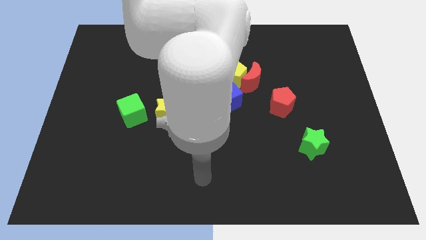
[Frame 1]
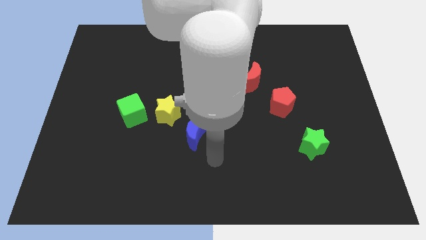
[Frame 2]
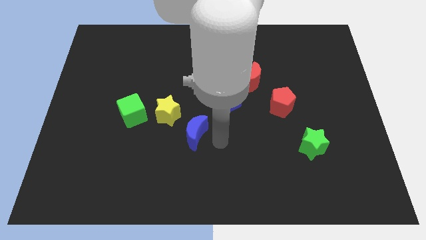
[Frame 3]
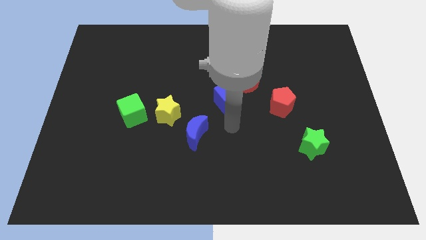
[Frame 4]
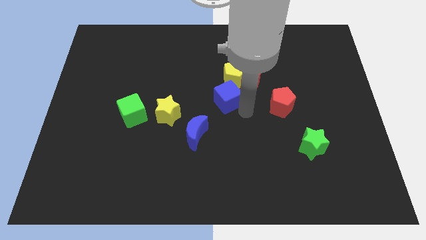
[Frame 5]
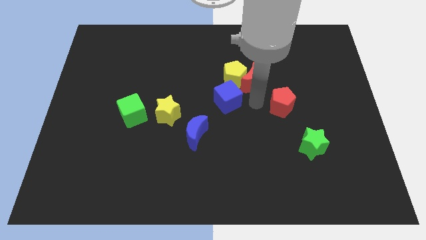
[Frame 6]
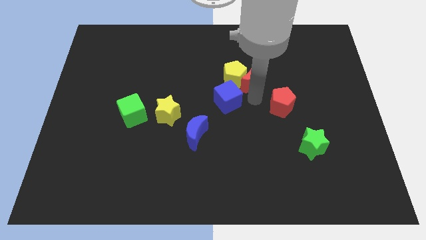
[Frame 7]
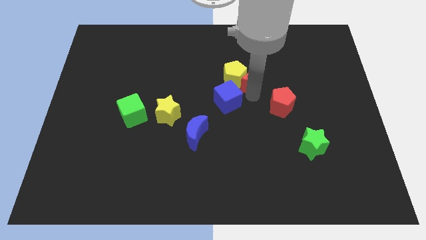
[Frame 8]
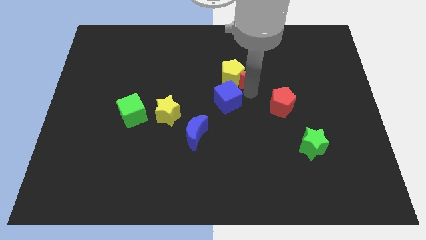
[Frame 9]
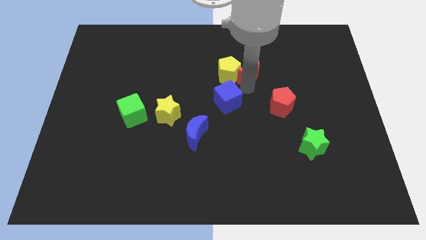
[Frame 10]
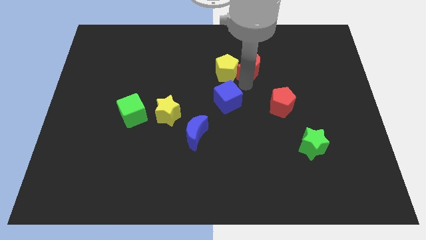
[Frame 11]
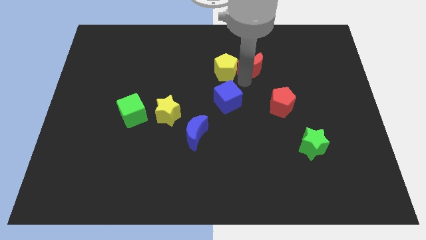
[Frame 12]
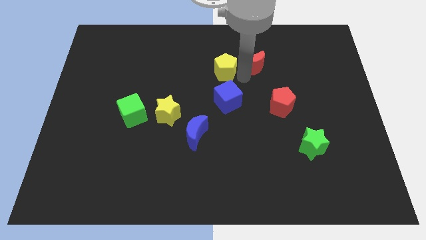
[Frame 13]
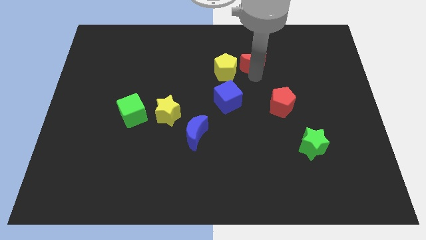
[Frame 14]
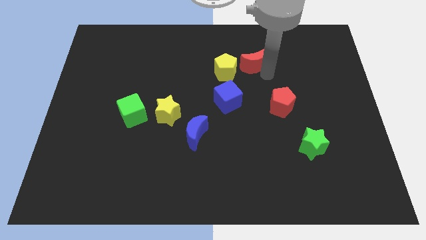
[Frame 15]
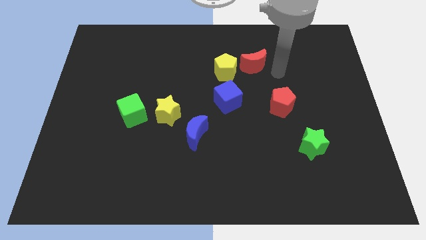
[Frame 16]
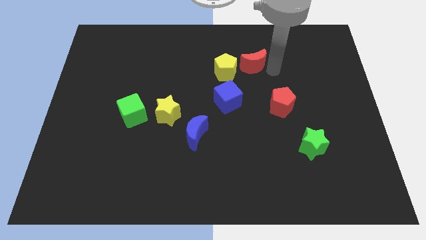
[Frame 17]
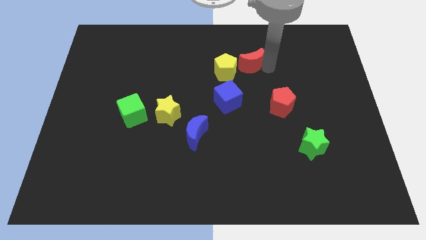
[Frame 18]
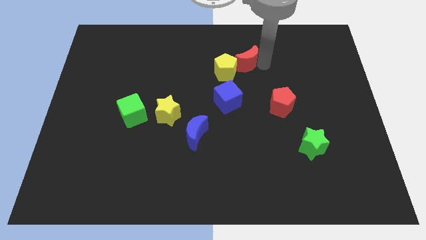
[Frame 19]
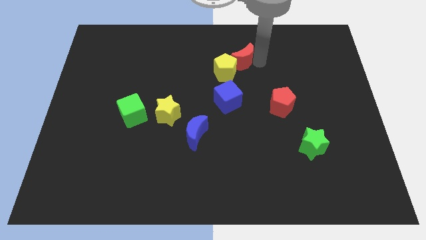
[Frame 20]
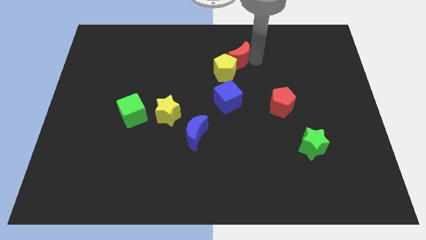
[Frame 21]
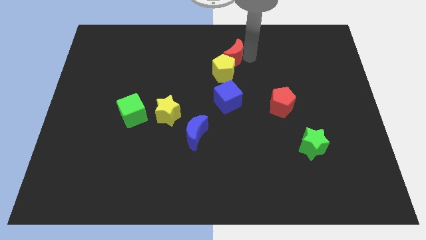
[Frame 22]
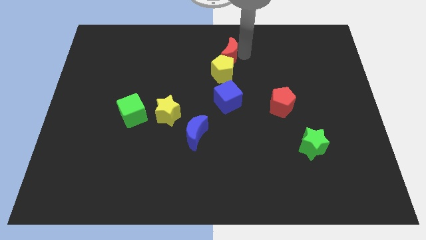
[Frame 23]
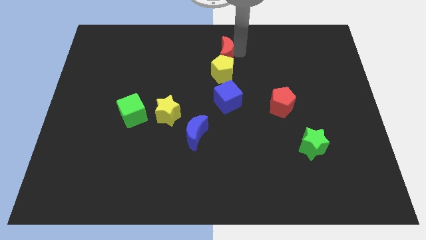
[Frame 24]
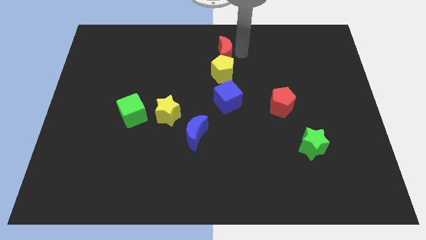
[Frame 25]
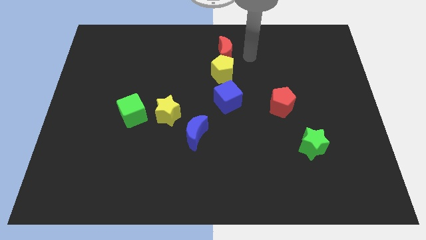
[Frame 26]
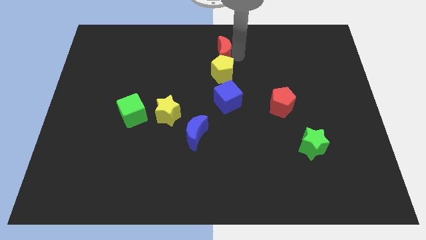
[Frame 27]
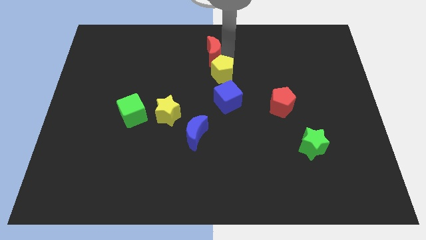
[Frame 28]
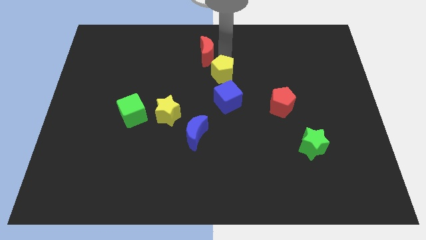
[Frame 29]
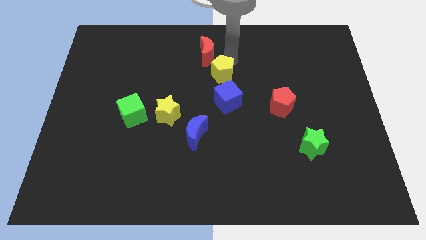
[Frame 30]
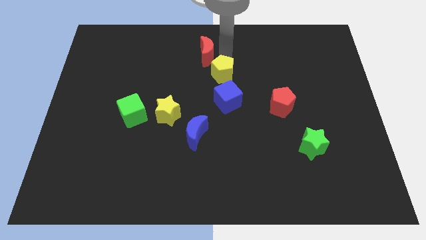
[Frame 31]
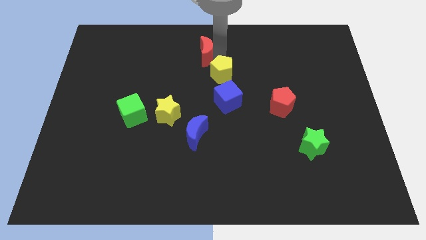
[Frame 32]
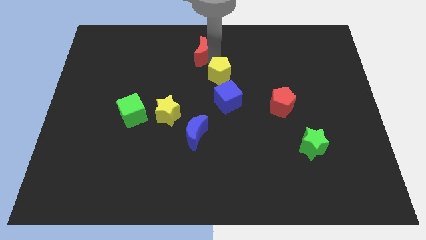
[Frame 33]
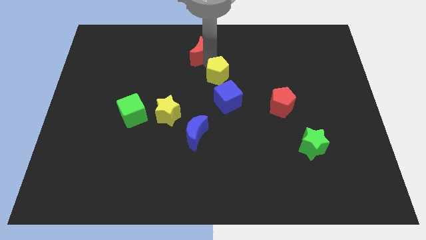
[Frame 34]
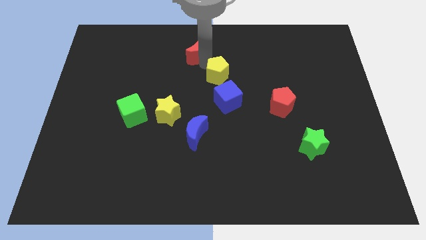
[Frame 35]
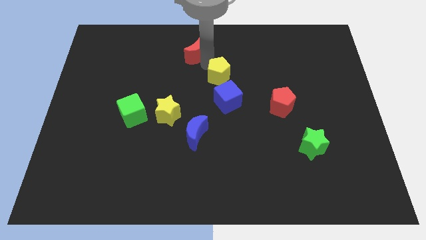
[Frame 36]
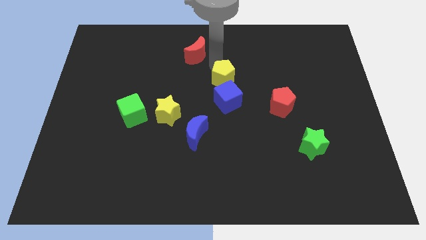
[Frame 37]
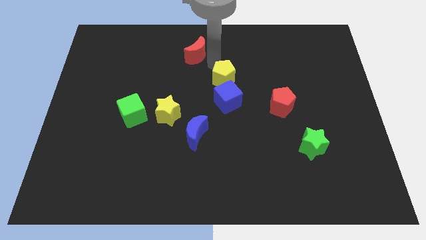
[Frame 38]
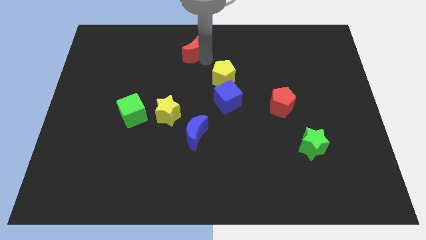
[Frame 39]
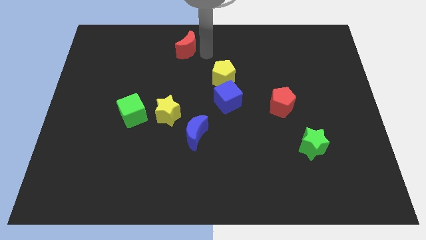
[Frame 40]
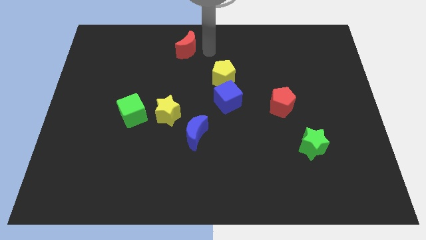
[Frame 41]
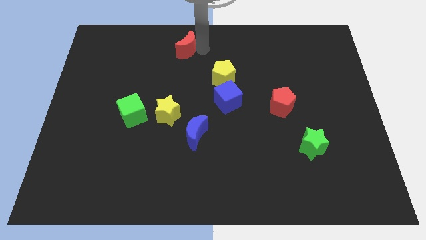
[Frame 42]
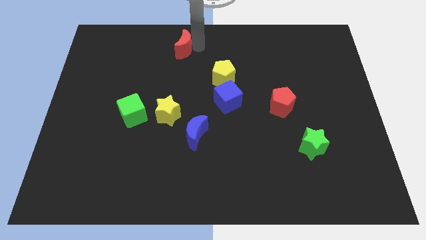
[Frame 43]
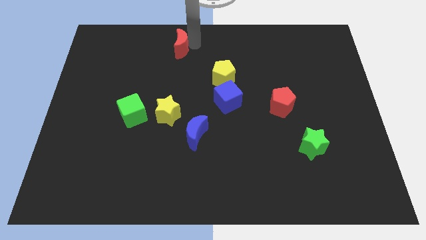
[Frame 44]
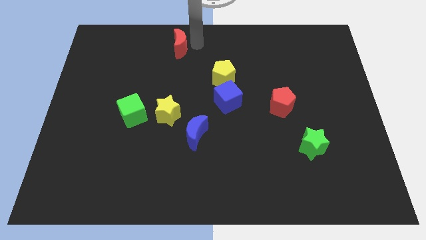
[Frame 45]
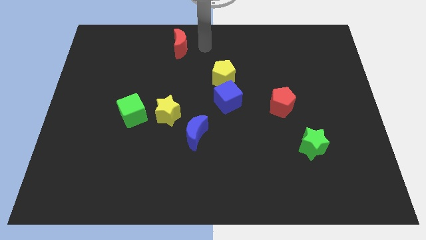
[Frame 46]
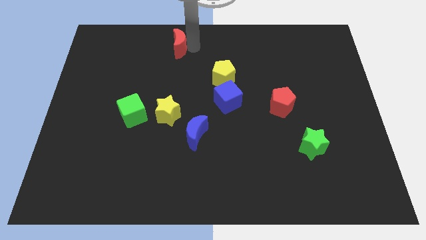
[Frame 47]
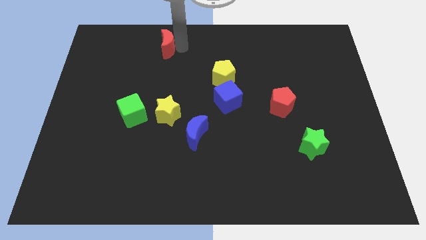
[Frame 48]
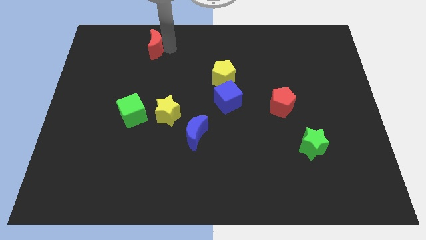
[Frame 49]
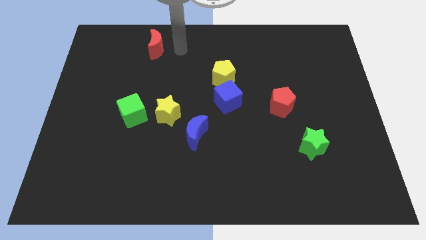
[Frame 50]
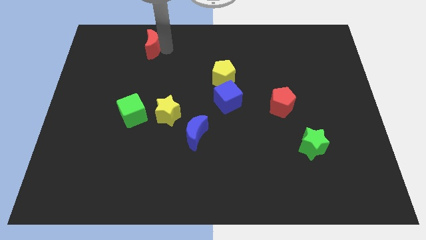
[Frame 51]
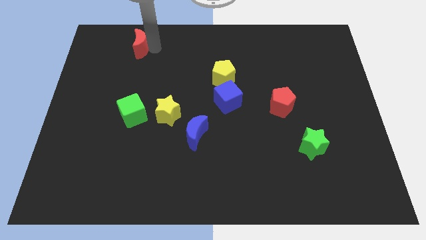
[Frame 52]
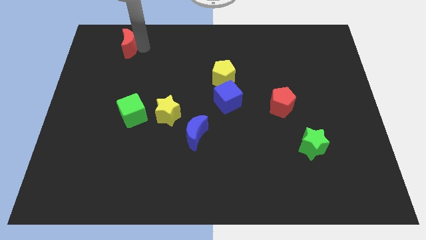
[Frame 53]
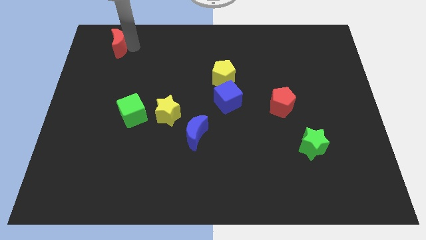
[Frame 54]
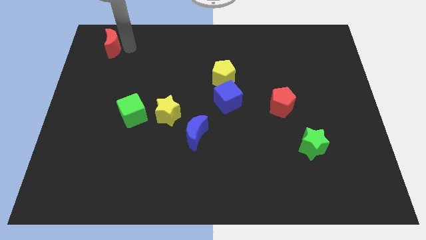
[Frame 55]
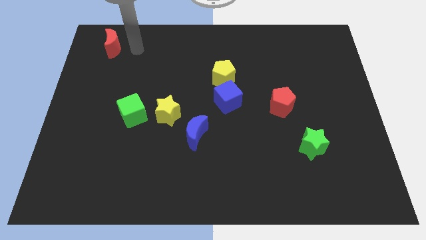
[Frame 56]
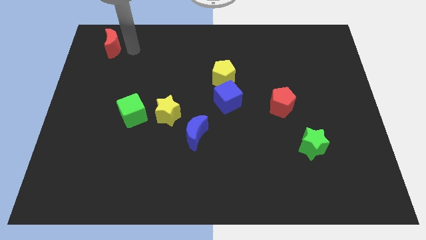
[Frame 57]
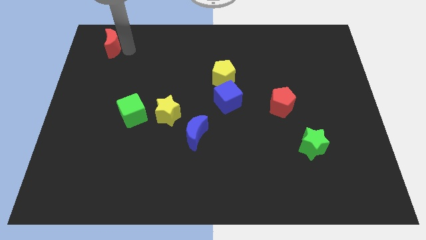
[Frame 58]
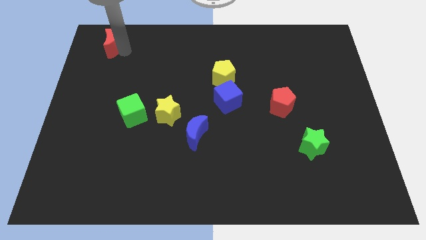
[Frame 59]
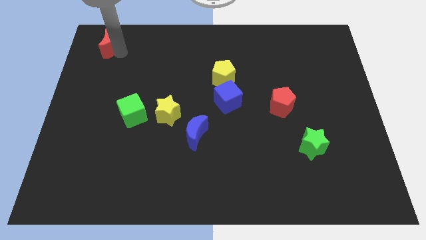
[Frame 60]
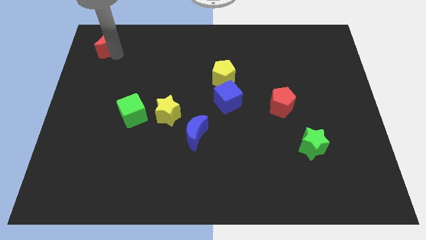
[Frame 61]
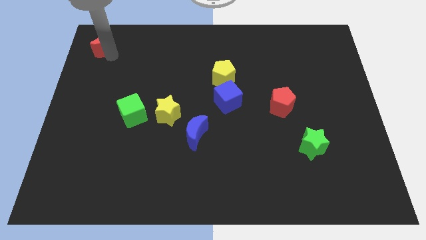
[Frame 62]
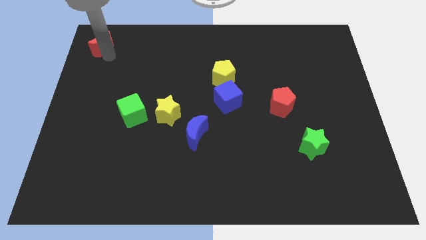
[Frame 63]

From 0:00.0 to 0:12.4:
push the red moon to the top left corner

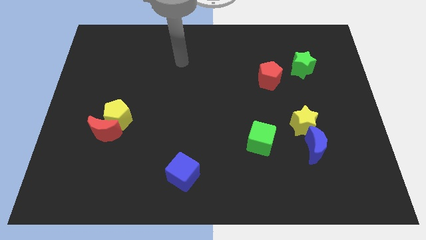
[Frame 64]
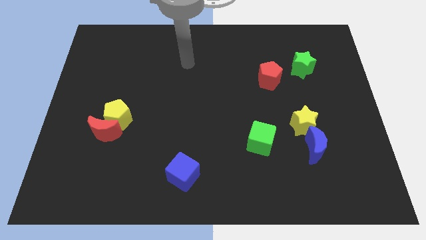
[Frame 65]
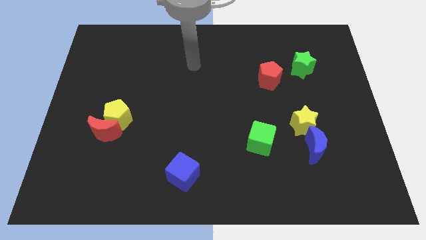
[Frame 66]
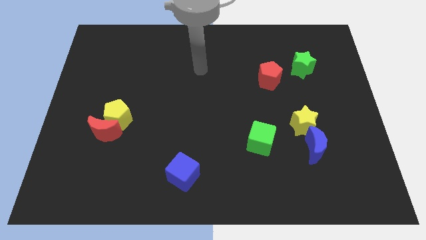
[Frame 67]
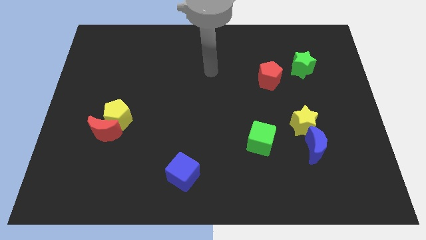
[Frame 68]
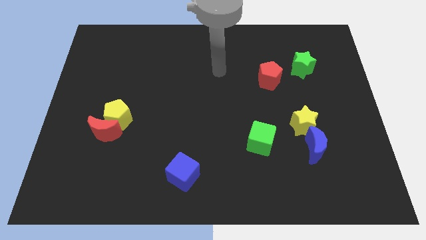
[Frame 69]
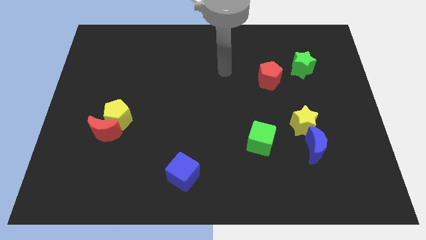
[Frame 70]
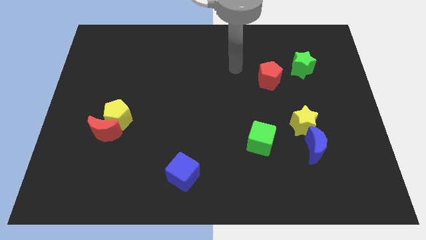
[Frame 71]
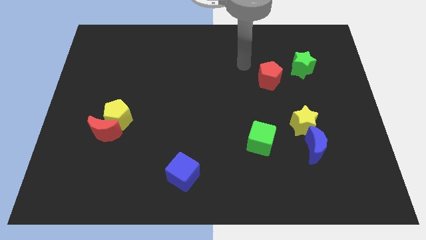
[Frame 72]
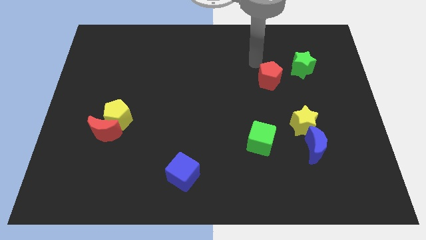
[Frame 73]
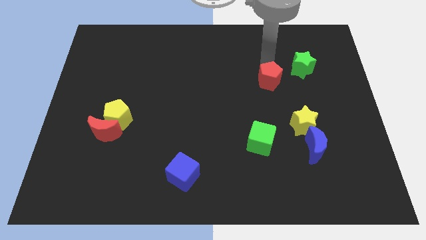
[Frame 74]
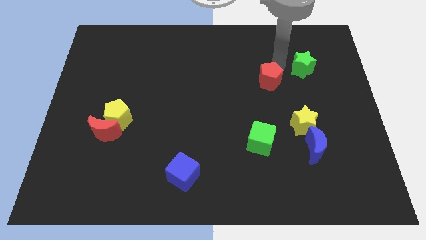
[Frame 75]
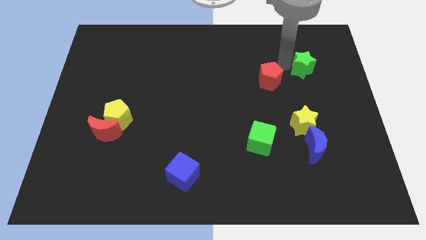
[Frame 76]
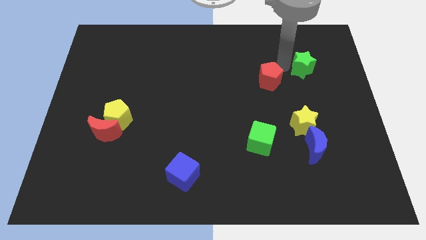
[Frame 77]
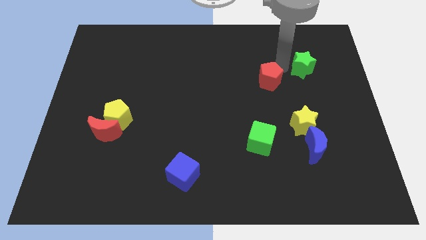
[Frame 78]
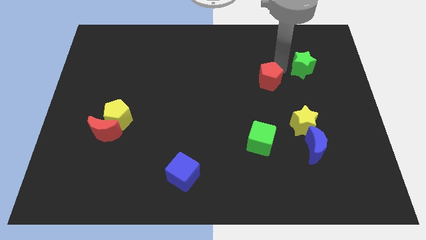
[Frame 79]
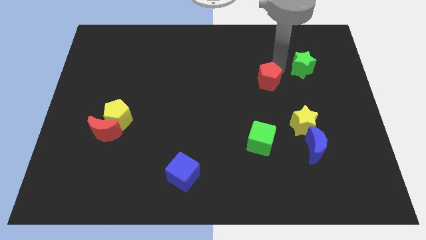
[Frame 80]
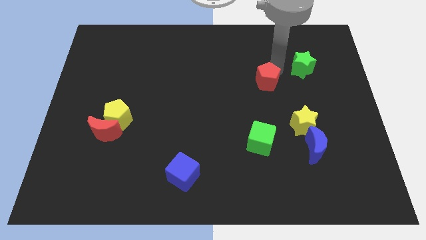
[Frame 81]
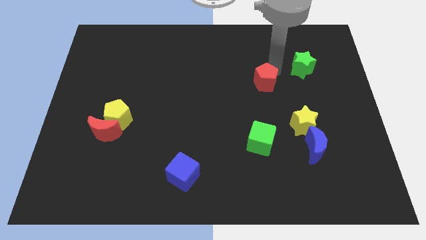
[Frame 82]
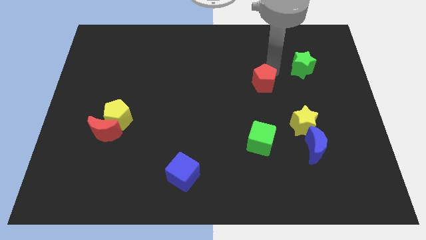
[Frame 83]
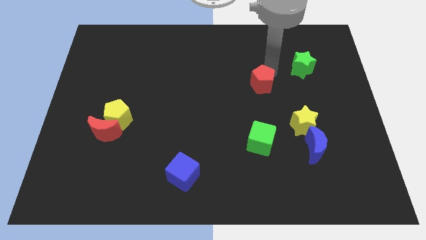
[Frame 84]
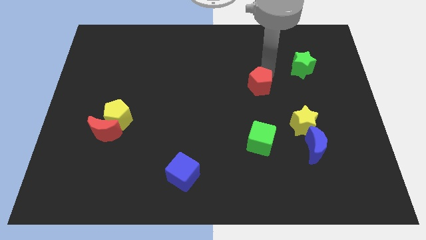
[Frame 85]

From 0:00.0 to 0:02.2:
put the red pentagon to the center of the board
